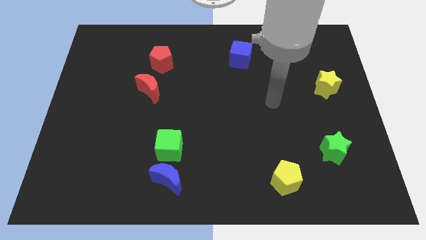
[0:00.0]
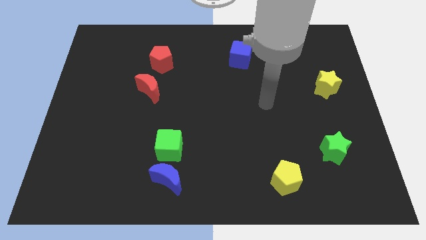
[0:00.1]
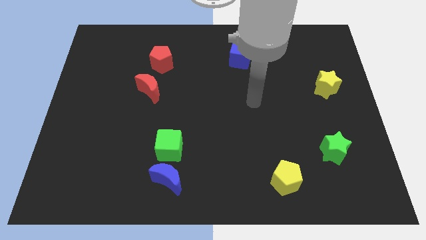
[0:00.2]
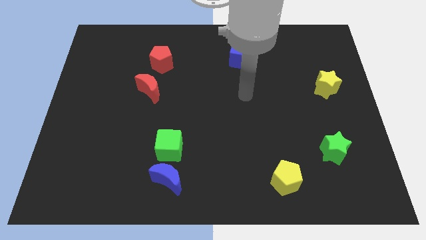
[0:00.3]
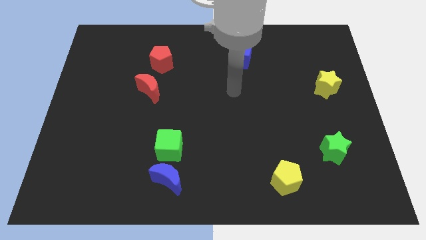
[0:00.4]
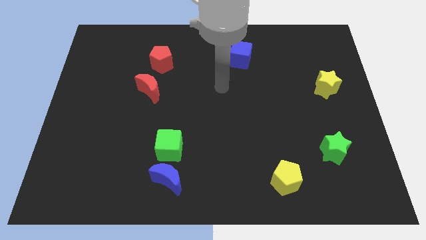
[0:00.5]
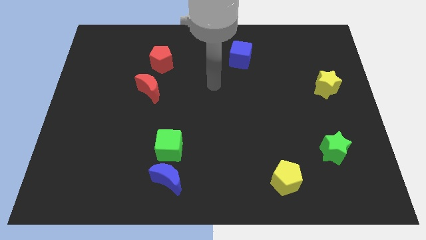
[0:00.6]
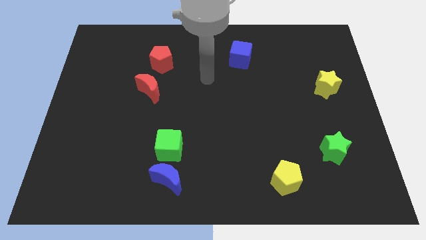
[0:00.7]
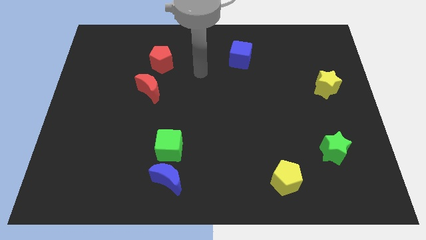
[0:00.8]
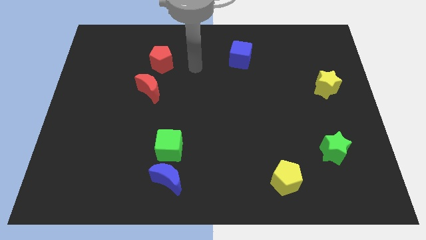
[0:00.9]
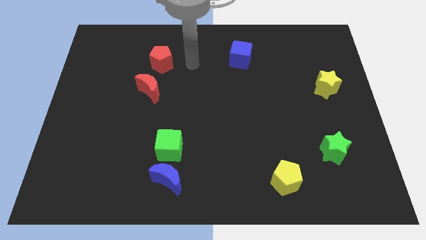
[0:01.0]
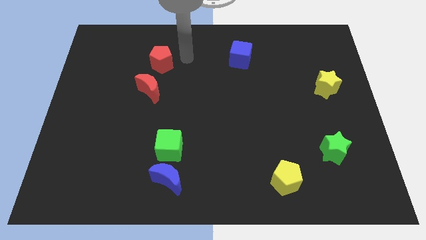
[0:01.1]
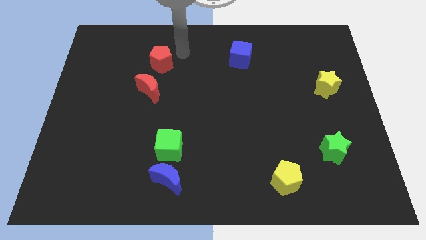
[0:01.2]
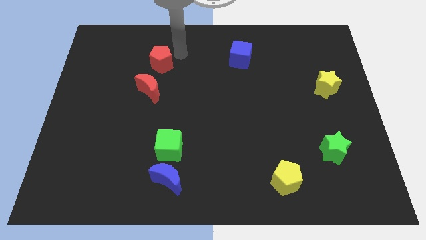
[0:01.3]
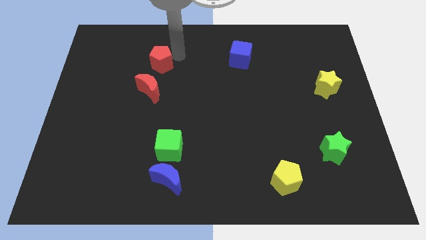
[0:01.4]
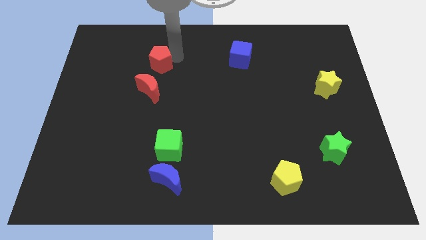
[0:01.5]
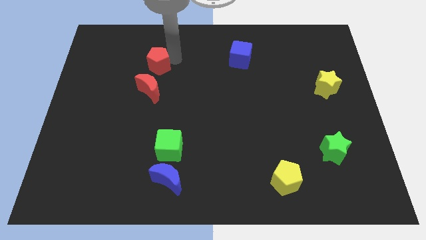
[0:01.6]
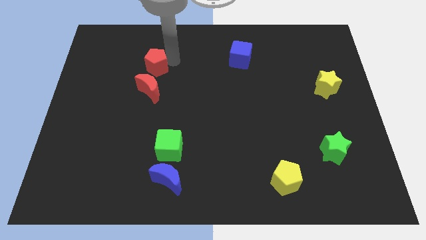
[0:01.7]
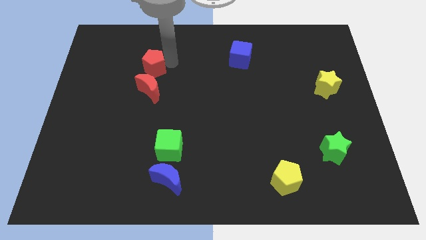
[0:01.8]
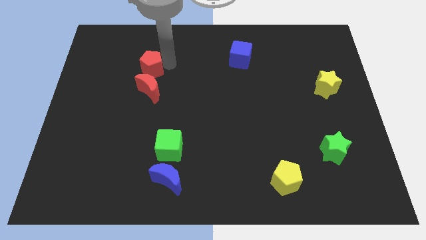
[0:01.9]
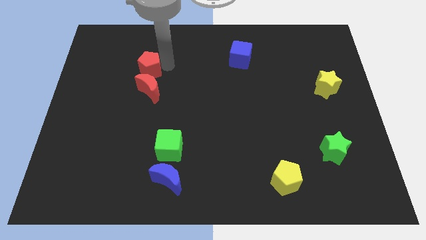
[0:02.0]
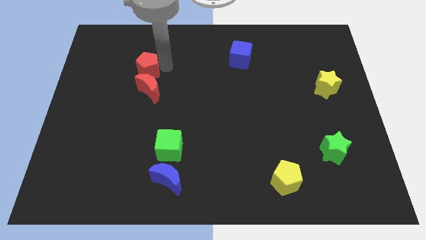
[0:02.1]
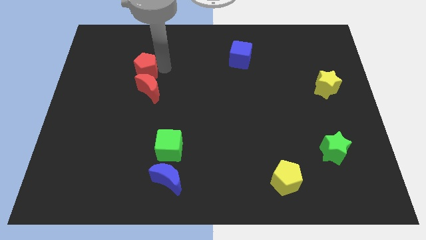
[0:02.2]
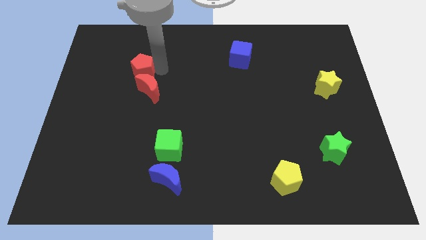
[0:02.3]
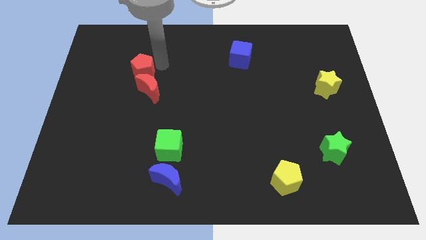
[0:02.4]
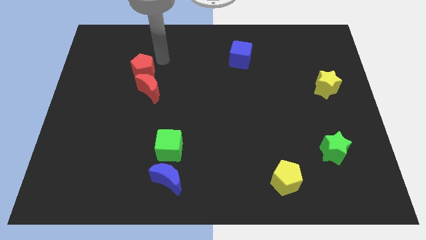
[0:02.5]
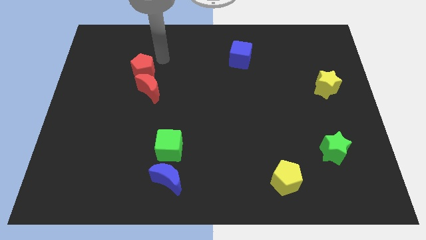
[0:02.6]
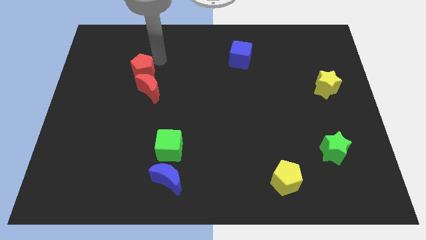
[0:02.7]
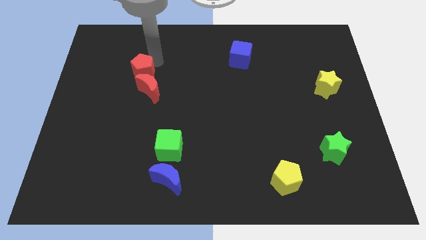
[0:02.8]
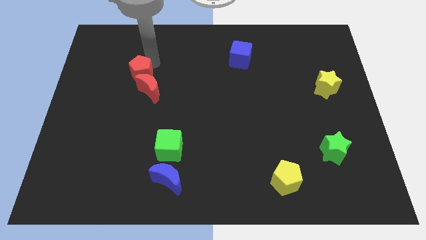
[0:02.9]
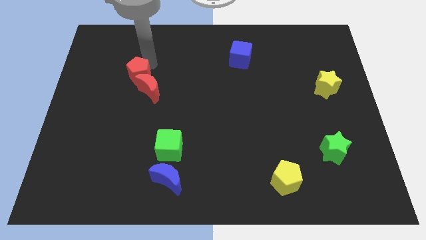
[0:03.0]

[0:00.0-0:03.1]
slightly push the red pentagon down and then to the left

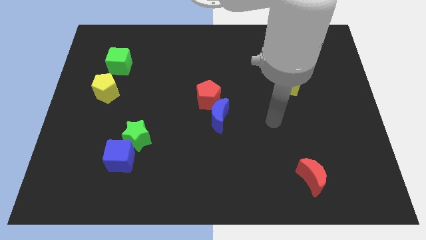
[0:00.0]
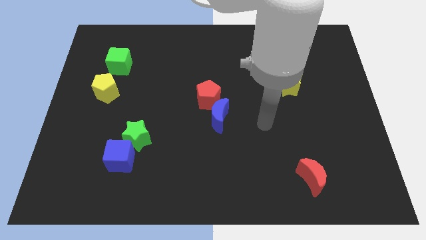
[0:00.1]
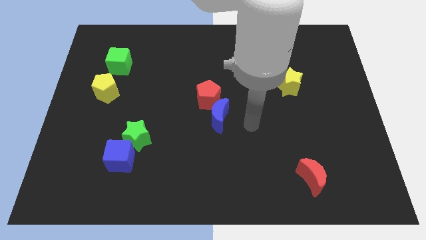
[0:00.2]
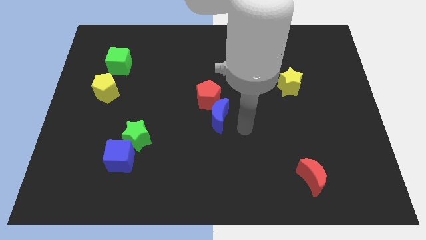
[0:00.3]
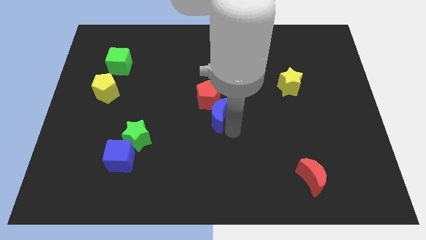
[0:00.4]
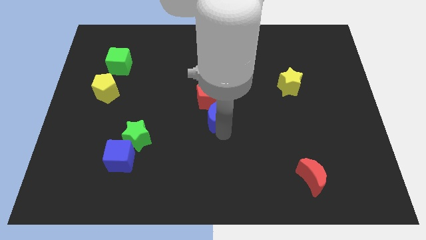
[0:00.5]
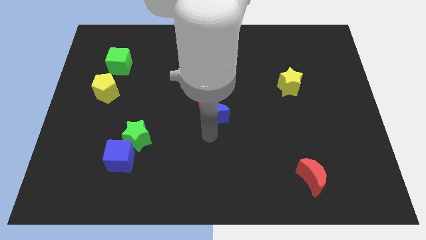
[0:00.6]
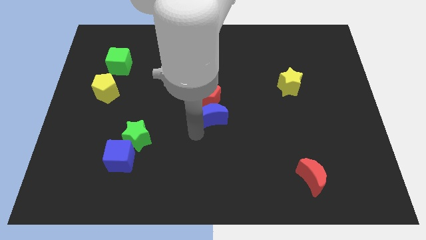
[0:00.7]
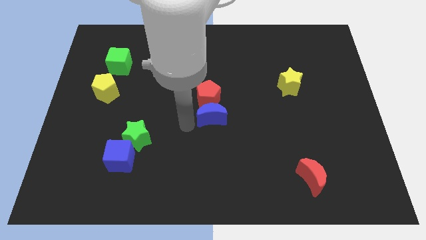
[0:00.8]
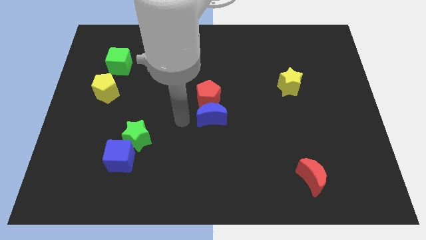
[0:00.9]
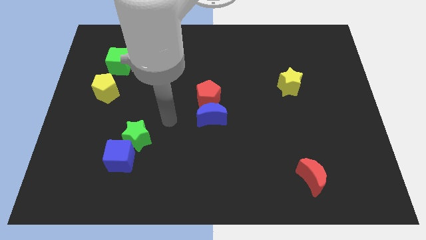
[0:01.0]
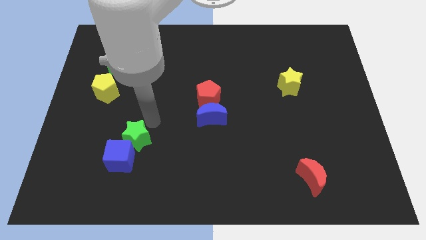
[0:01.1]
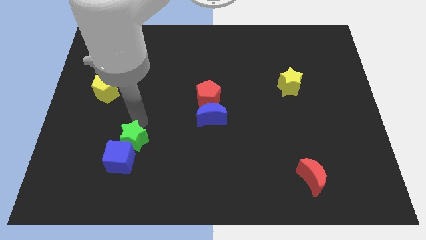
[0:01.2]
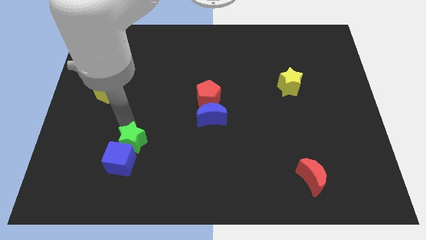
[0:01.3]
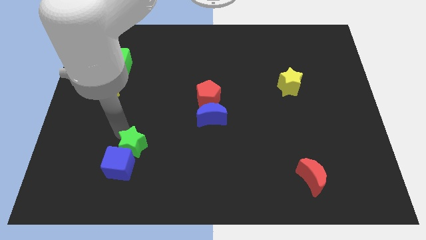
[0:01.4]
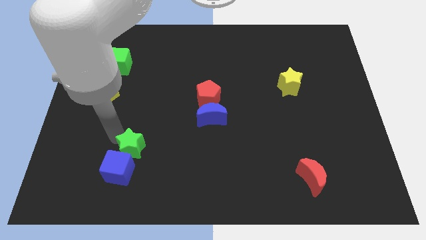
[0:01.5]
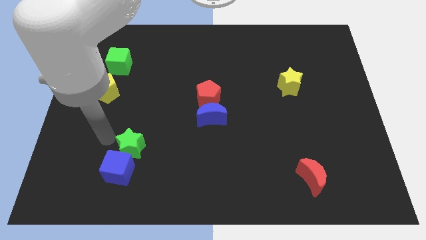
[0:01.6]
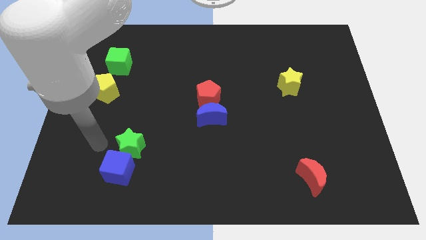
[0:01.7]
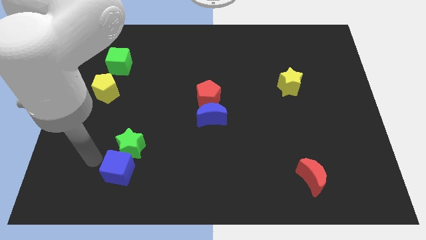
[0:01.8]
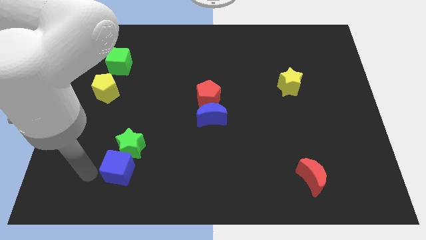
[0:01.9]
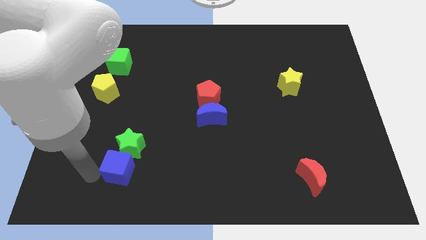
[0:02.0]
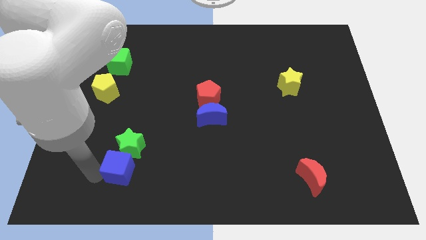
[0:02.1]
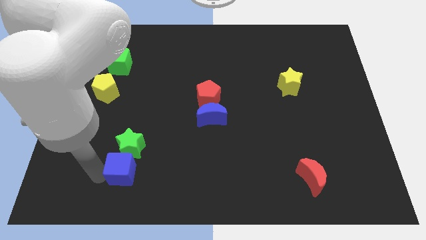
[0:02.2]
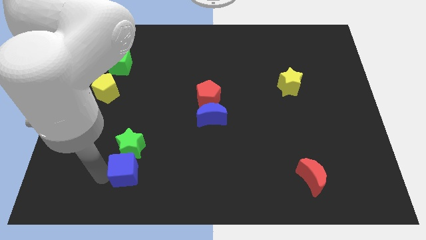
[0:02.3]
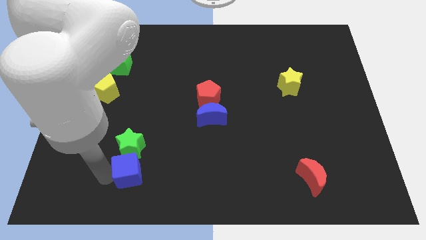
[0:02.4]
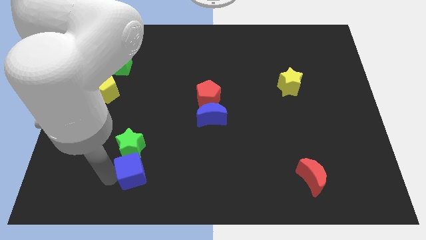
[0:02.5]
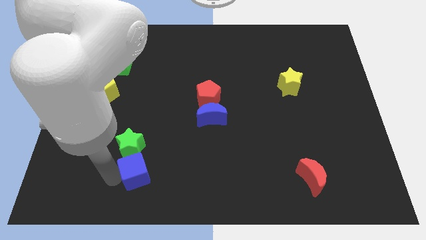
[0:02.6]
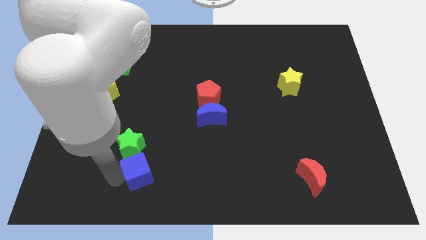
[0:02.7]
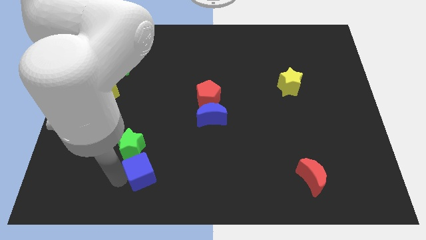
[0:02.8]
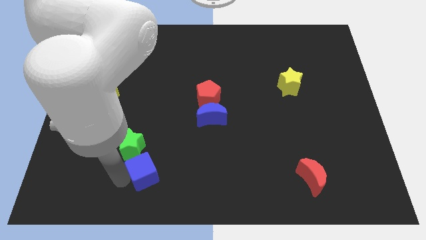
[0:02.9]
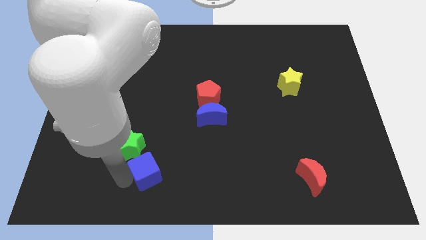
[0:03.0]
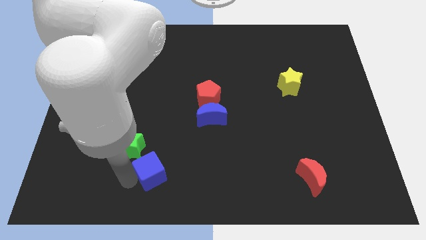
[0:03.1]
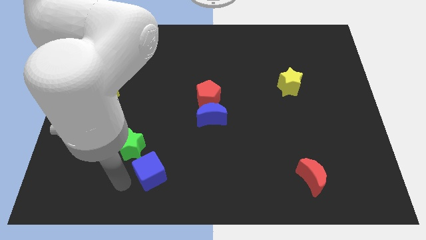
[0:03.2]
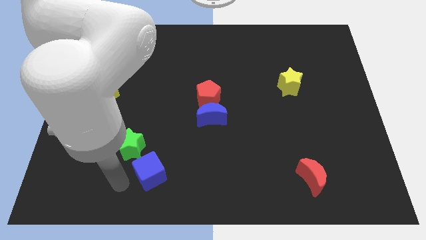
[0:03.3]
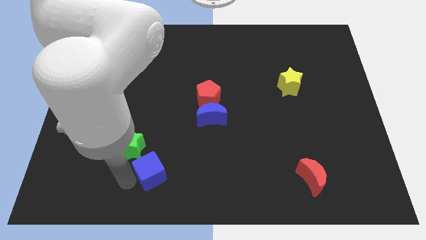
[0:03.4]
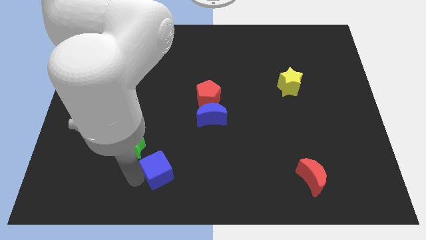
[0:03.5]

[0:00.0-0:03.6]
push the blue cube right somewhat

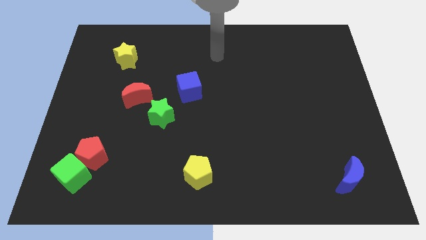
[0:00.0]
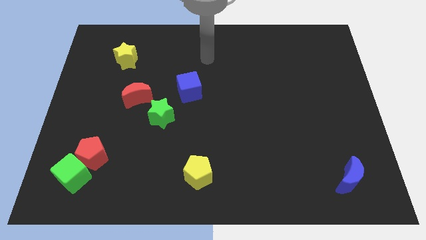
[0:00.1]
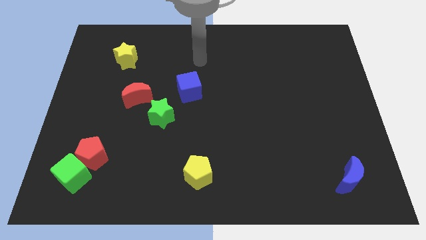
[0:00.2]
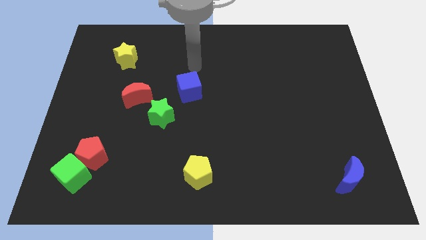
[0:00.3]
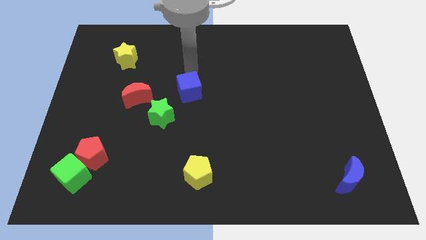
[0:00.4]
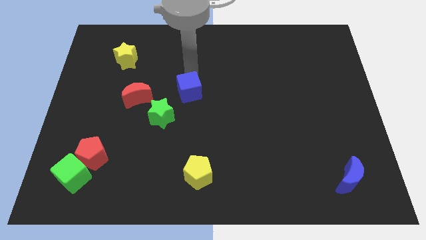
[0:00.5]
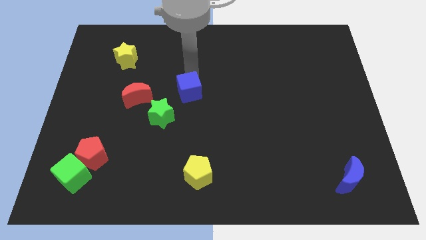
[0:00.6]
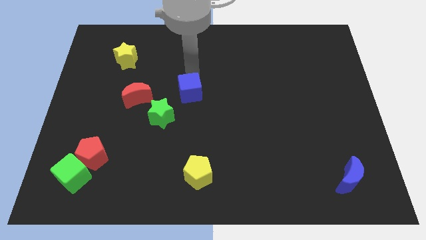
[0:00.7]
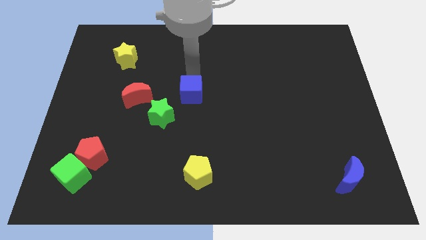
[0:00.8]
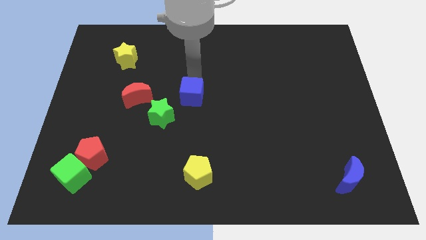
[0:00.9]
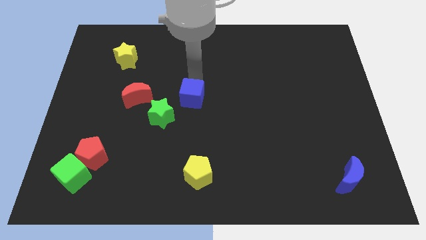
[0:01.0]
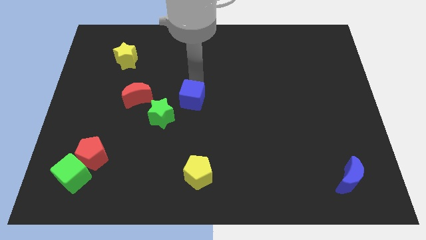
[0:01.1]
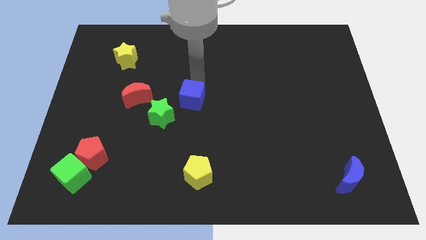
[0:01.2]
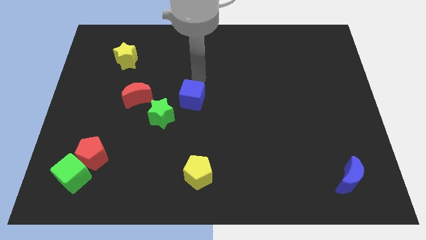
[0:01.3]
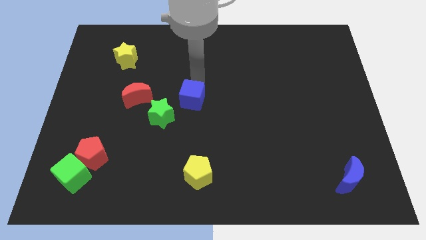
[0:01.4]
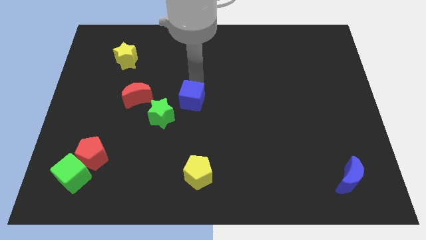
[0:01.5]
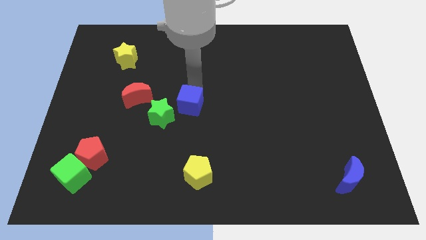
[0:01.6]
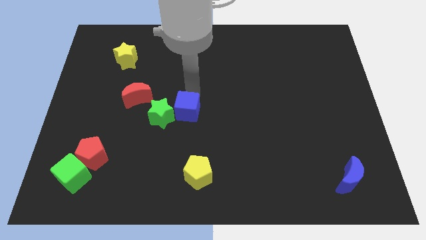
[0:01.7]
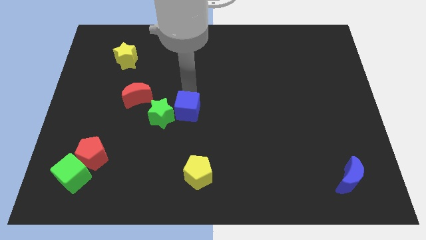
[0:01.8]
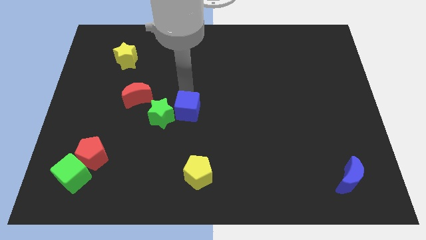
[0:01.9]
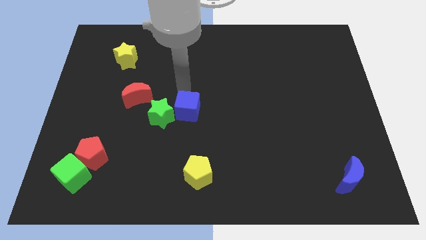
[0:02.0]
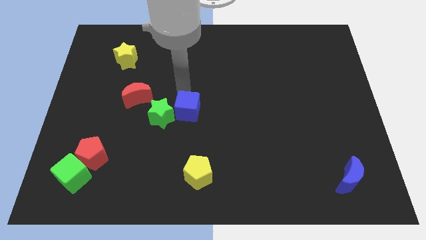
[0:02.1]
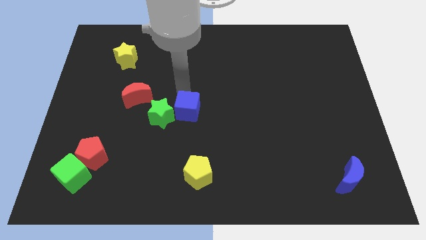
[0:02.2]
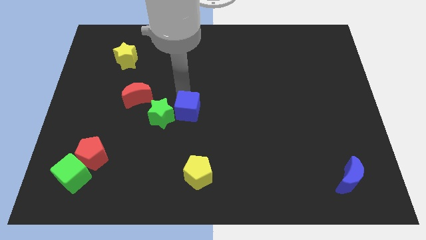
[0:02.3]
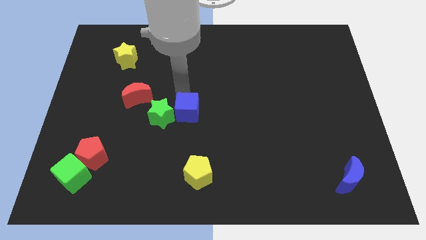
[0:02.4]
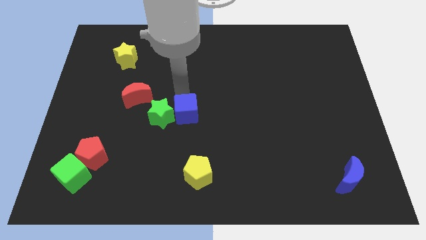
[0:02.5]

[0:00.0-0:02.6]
slightly move the blue cube down
